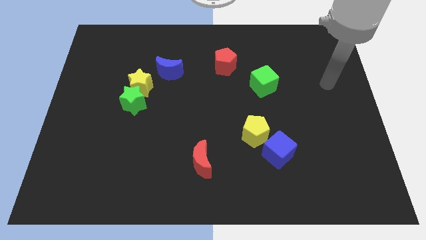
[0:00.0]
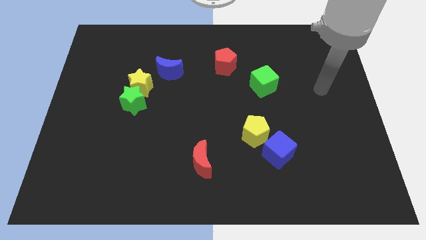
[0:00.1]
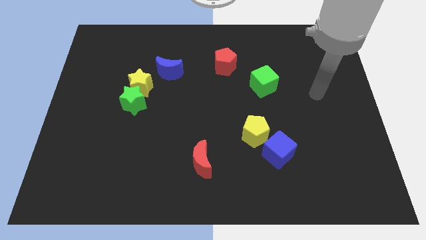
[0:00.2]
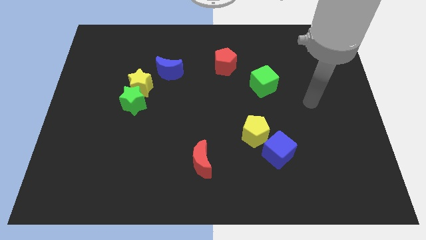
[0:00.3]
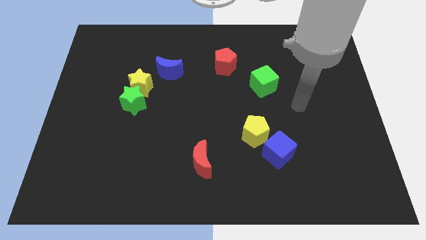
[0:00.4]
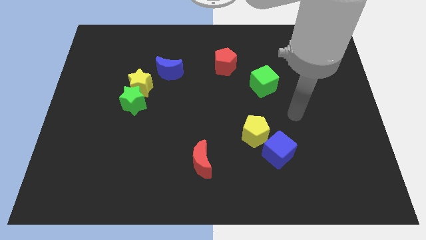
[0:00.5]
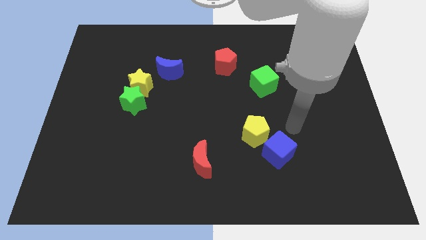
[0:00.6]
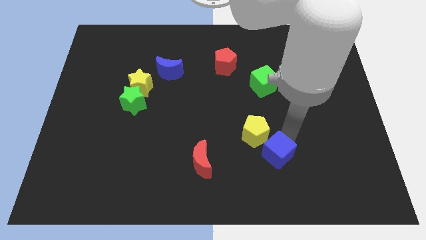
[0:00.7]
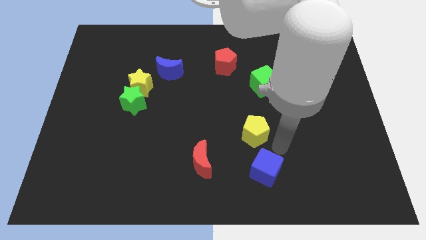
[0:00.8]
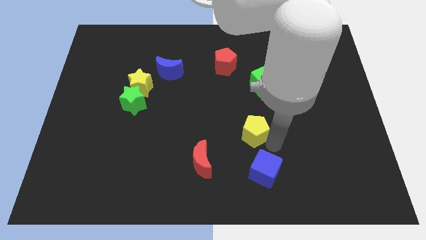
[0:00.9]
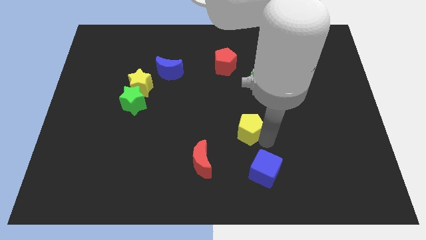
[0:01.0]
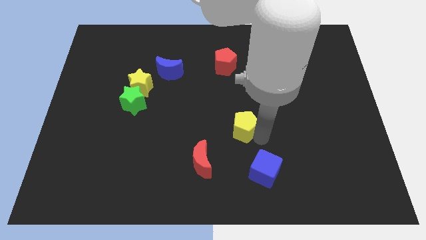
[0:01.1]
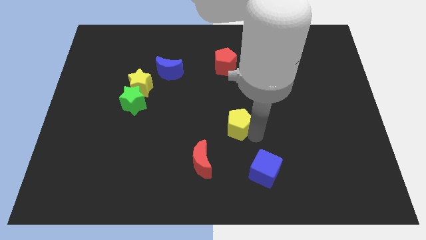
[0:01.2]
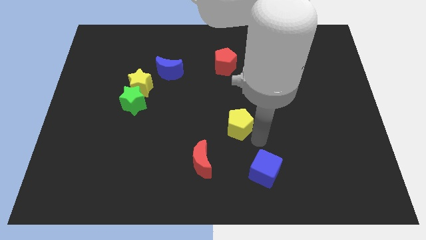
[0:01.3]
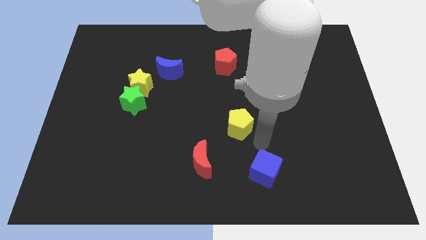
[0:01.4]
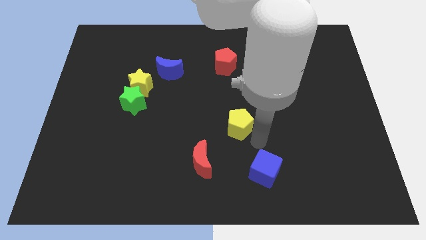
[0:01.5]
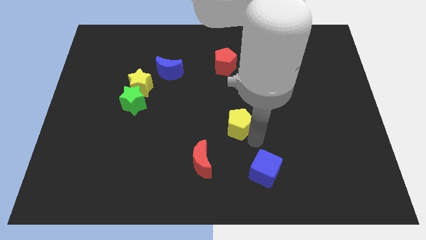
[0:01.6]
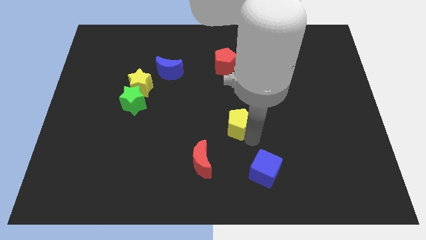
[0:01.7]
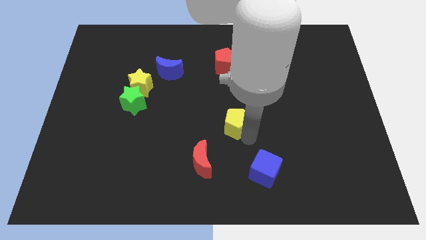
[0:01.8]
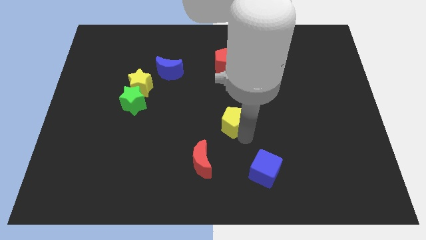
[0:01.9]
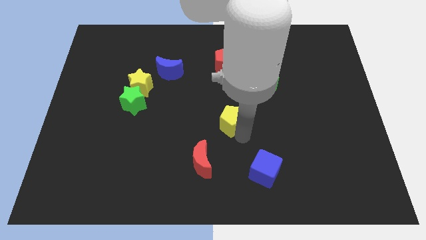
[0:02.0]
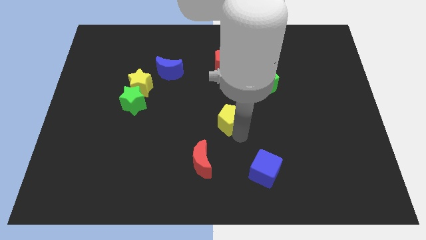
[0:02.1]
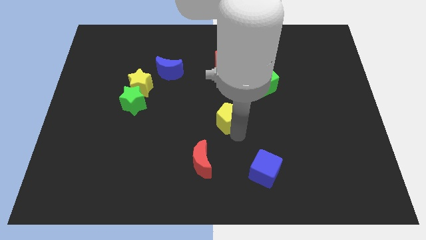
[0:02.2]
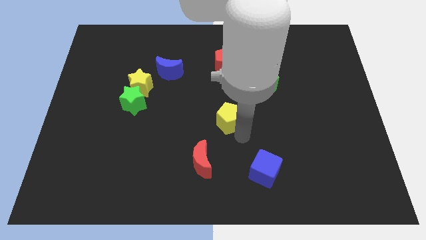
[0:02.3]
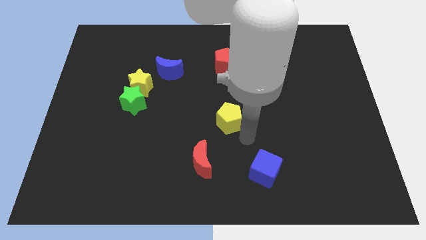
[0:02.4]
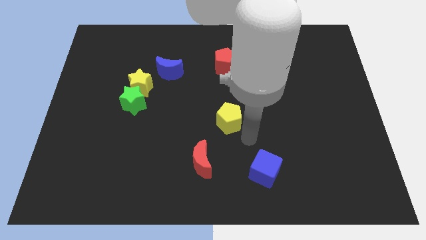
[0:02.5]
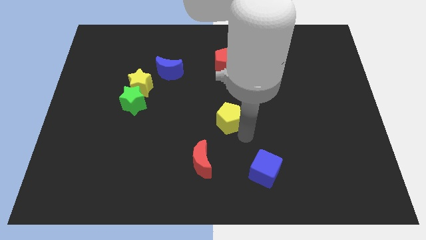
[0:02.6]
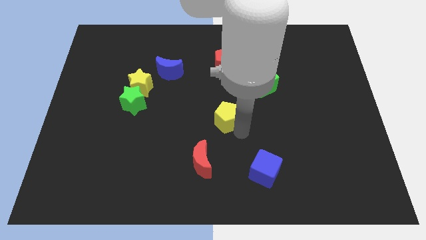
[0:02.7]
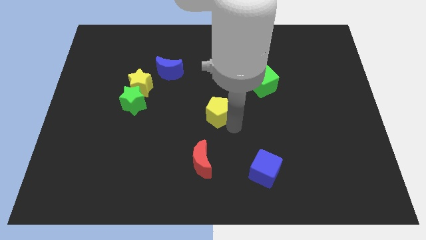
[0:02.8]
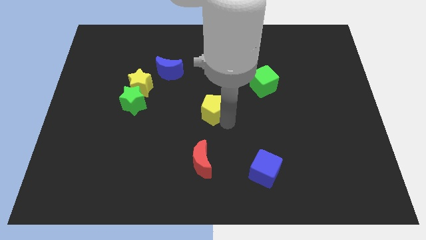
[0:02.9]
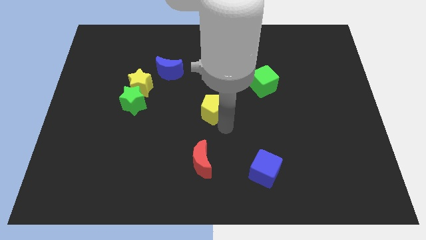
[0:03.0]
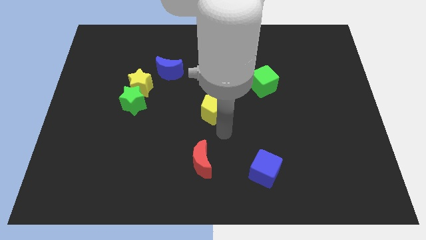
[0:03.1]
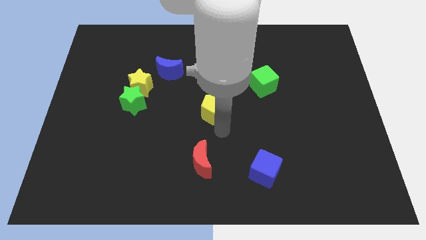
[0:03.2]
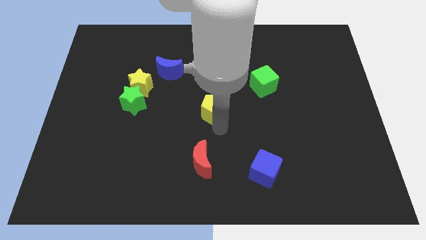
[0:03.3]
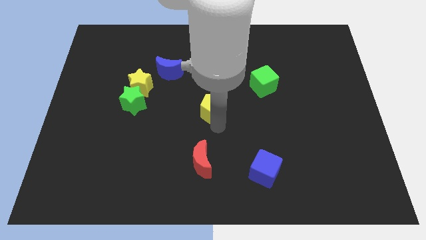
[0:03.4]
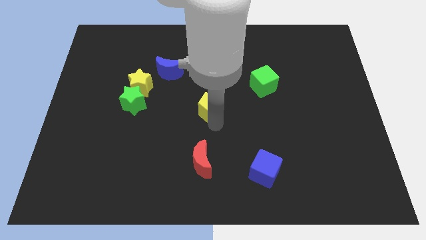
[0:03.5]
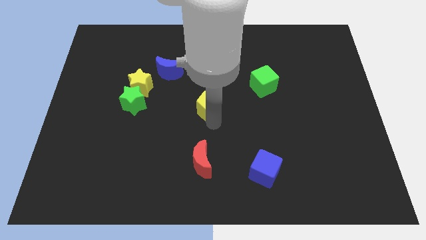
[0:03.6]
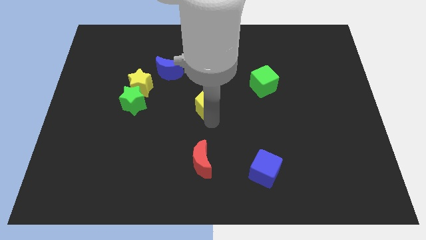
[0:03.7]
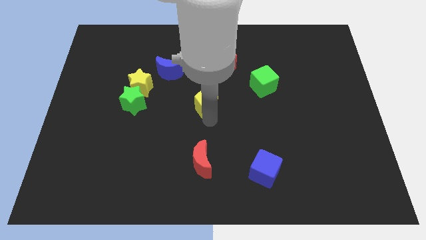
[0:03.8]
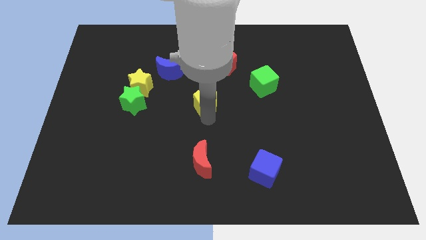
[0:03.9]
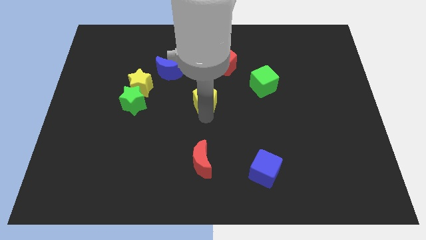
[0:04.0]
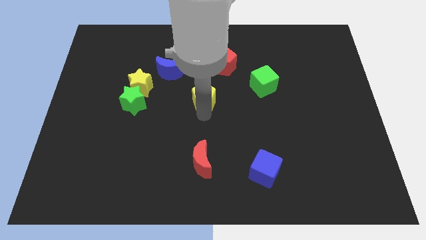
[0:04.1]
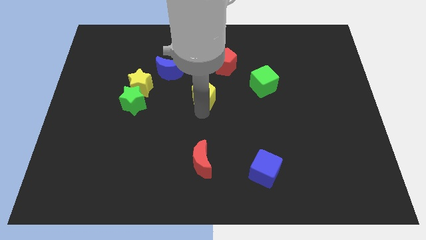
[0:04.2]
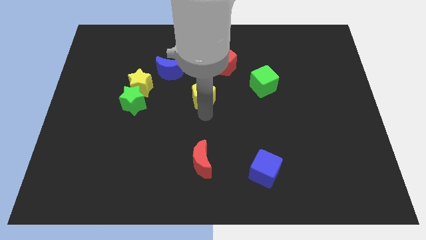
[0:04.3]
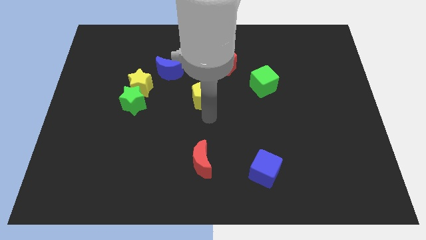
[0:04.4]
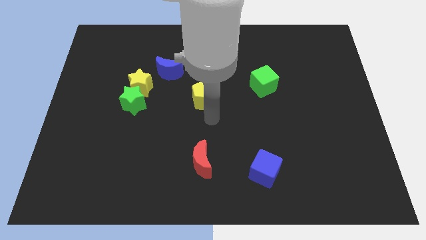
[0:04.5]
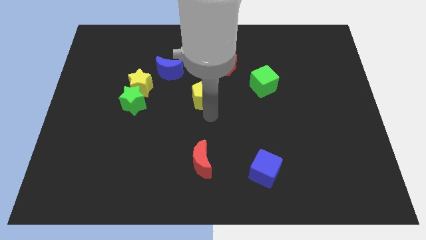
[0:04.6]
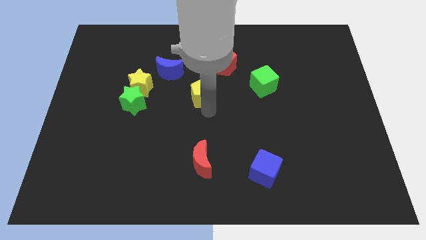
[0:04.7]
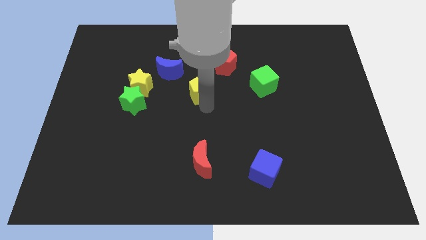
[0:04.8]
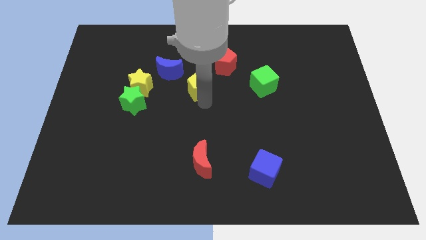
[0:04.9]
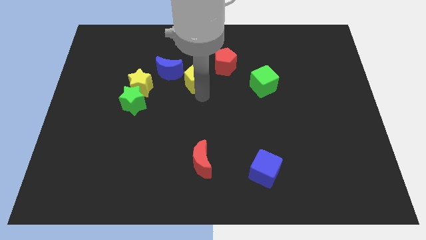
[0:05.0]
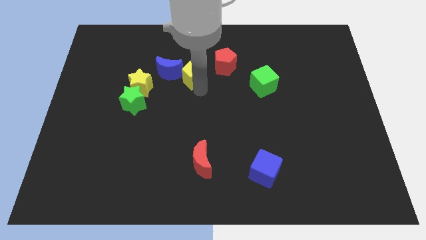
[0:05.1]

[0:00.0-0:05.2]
move the yellow pentagon just left of the red pentagon

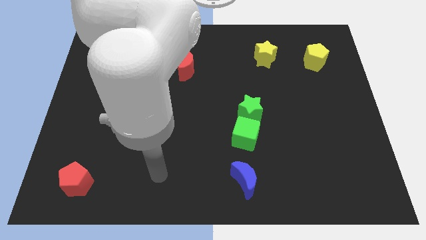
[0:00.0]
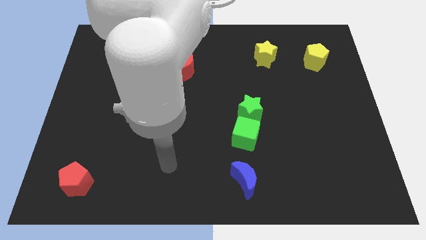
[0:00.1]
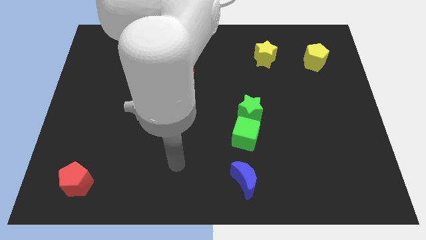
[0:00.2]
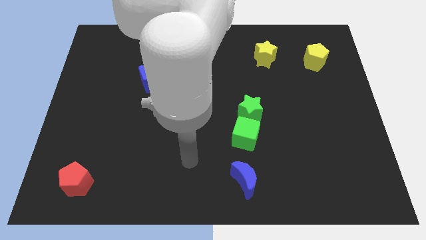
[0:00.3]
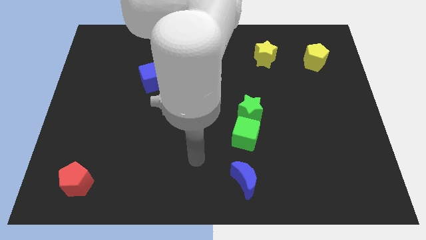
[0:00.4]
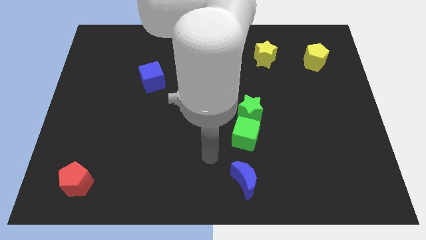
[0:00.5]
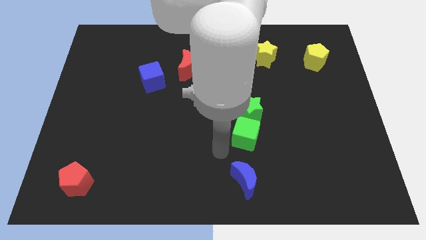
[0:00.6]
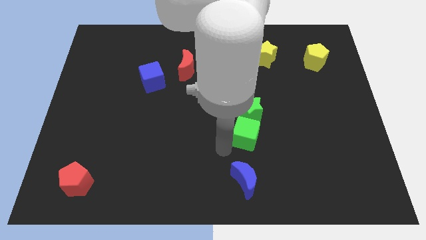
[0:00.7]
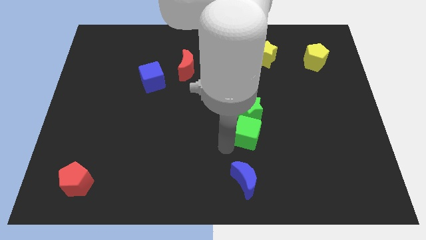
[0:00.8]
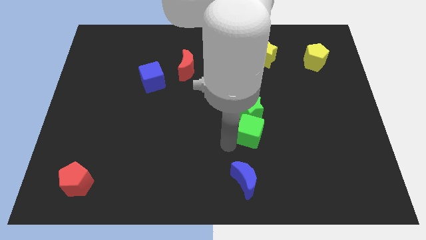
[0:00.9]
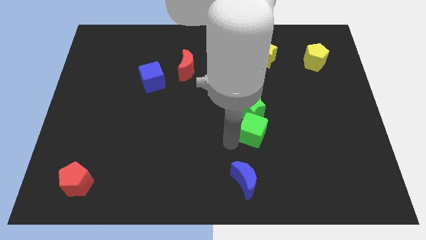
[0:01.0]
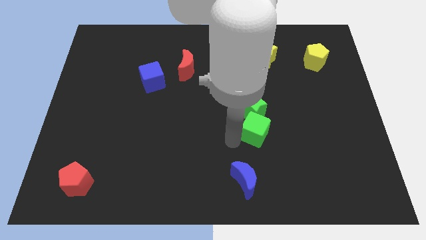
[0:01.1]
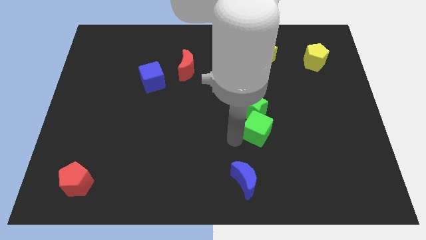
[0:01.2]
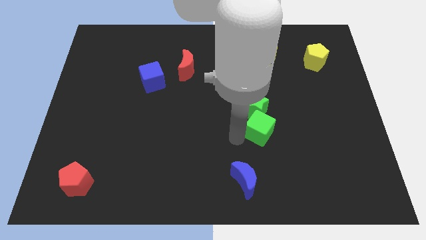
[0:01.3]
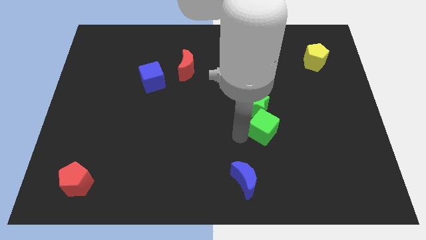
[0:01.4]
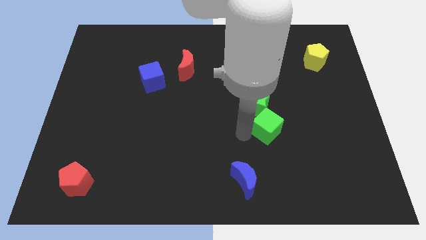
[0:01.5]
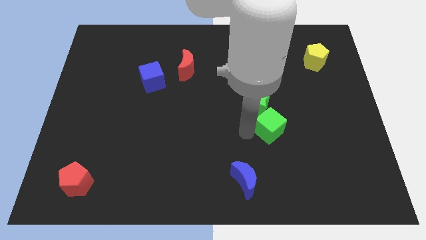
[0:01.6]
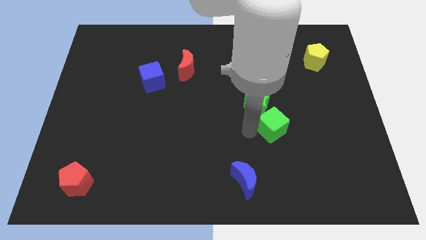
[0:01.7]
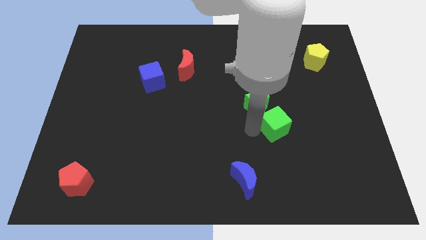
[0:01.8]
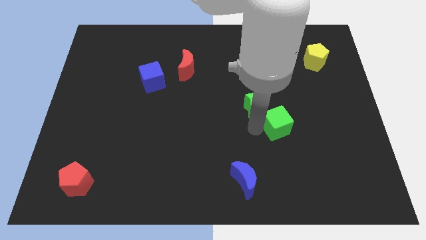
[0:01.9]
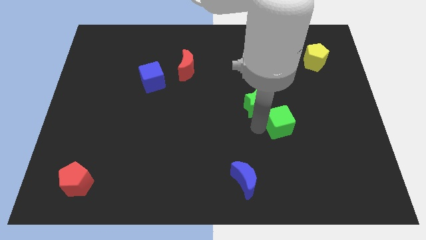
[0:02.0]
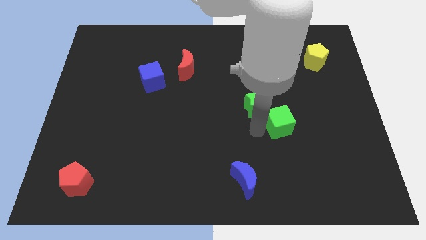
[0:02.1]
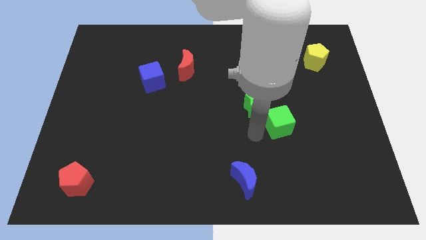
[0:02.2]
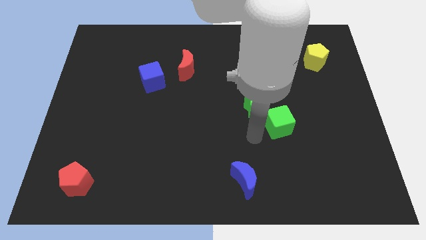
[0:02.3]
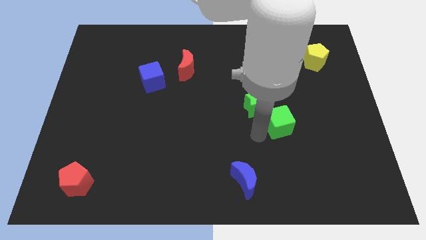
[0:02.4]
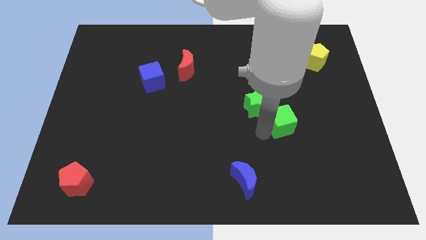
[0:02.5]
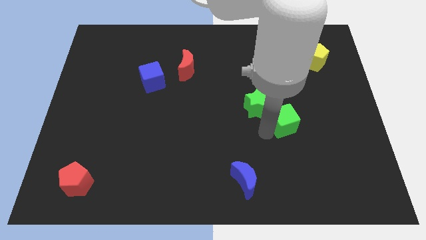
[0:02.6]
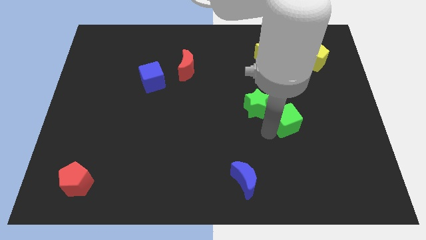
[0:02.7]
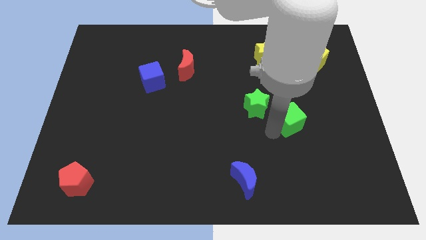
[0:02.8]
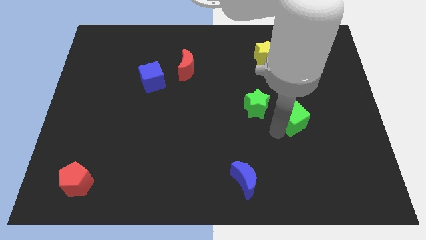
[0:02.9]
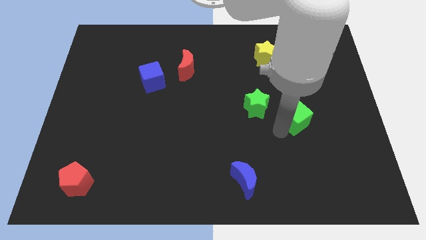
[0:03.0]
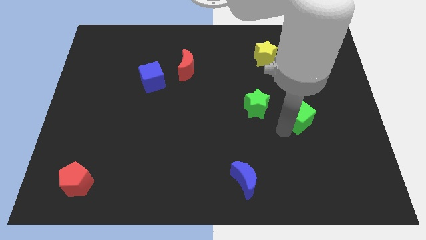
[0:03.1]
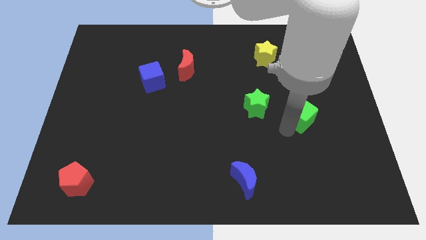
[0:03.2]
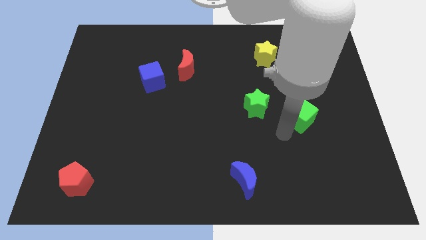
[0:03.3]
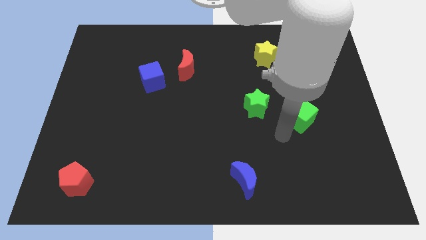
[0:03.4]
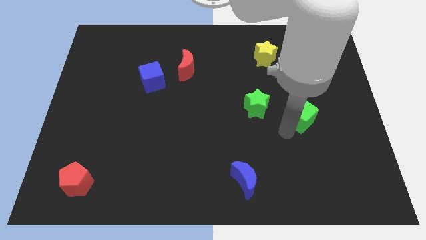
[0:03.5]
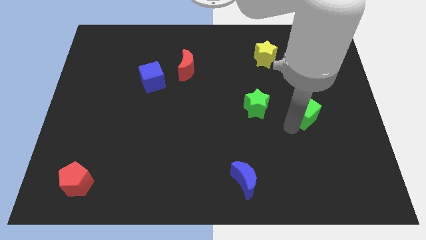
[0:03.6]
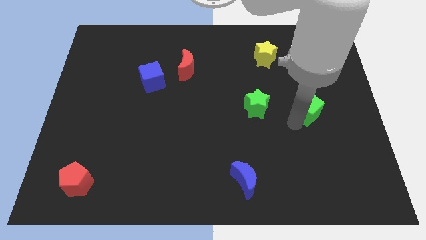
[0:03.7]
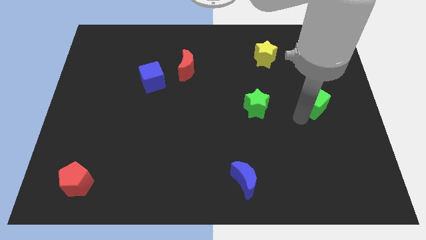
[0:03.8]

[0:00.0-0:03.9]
put the green cube to the bottom side of the yellow pentagon
